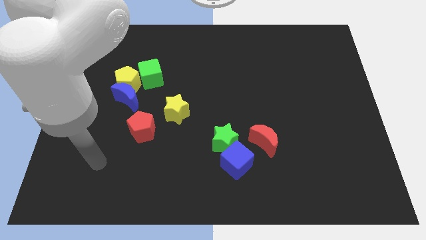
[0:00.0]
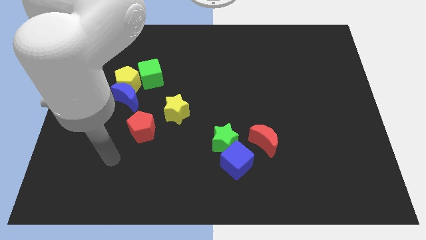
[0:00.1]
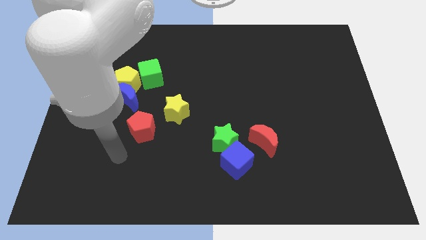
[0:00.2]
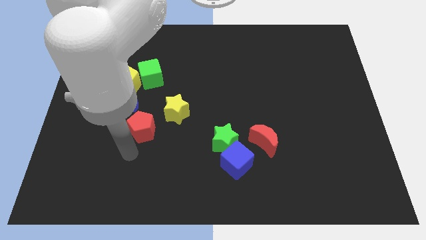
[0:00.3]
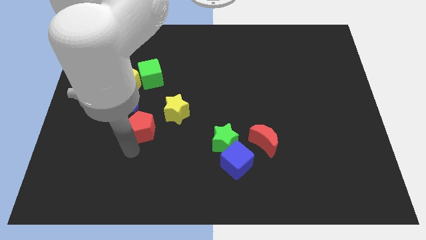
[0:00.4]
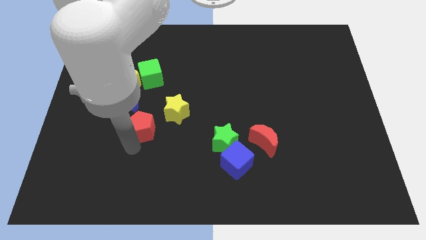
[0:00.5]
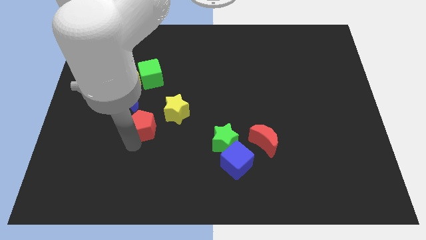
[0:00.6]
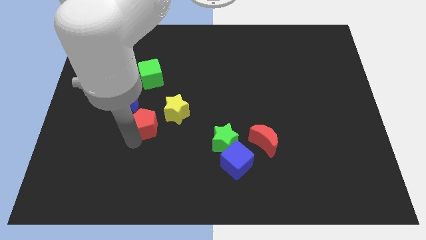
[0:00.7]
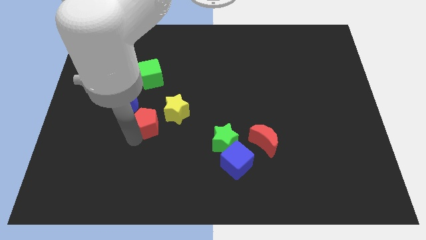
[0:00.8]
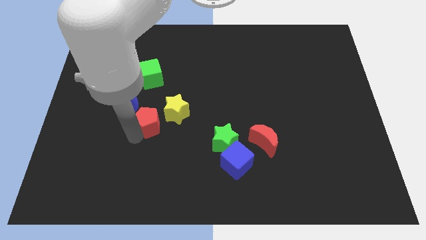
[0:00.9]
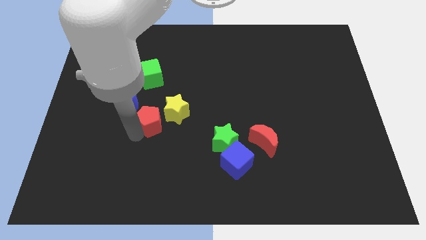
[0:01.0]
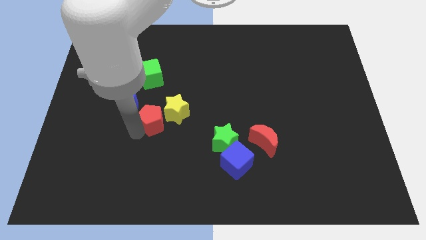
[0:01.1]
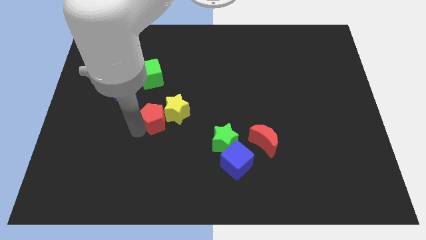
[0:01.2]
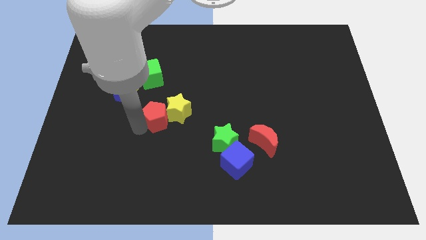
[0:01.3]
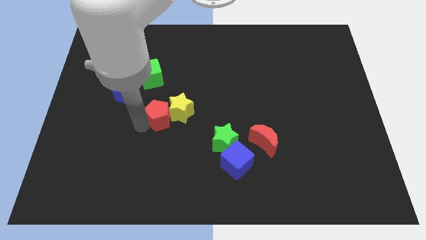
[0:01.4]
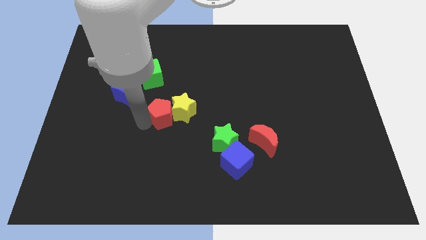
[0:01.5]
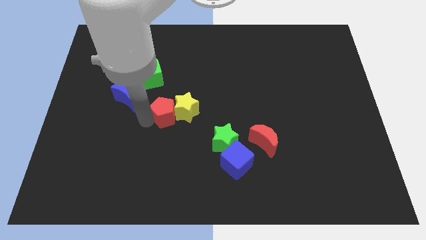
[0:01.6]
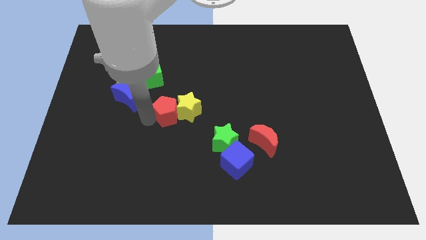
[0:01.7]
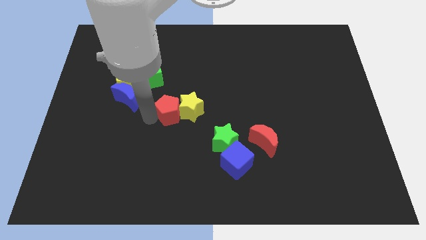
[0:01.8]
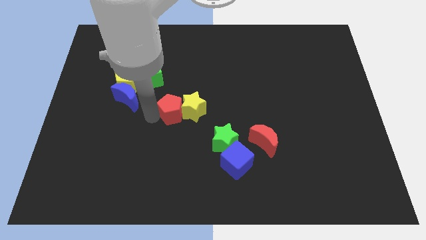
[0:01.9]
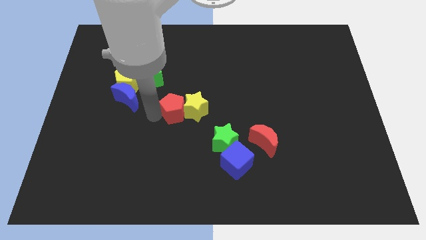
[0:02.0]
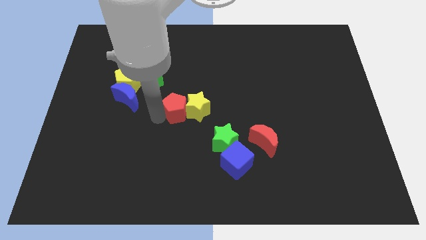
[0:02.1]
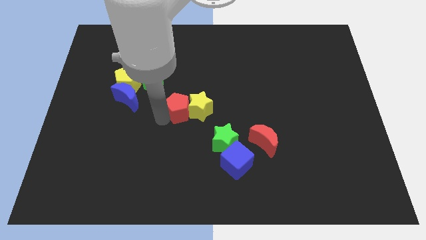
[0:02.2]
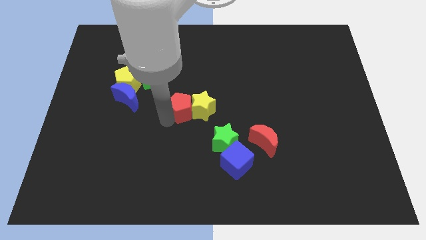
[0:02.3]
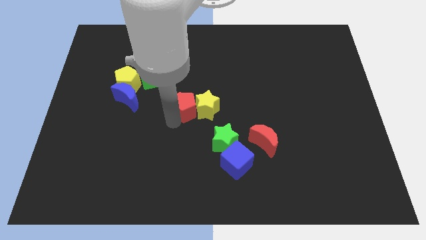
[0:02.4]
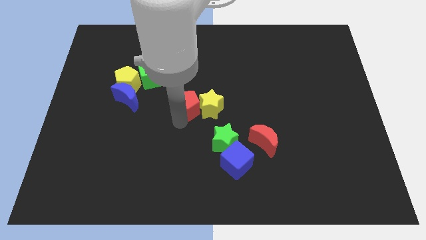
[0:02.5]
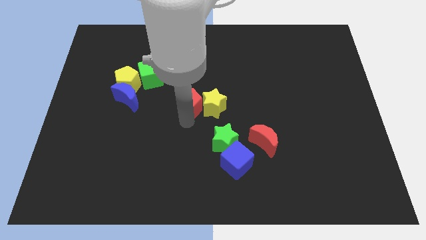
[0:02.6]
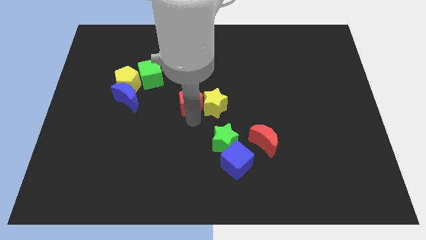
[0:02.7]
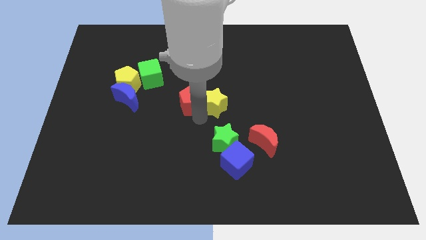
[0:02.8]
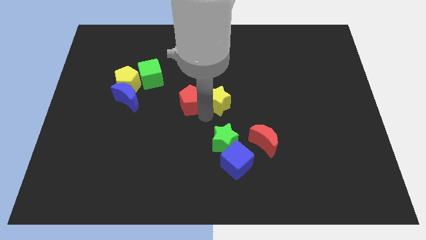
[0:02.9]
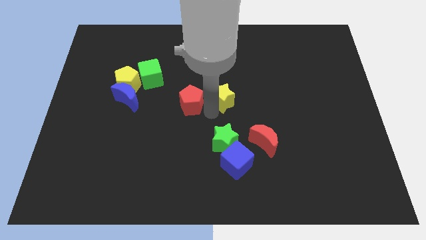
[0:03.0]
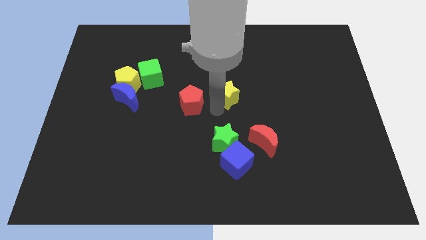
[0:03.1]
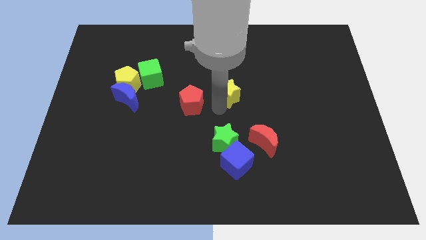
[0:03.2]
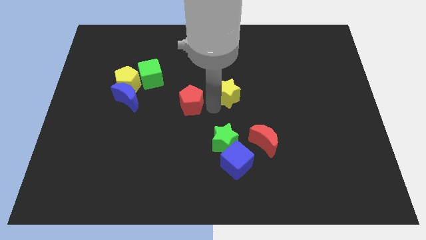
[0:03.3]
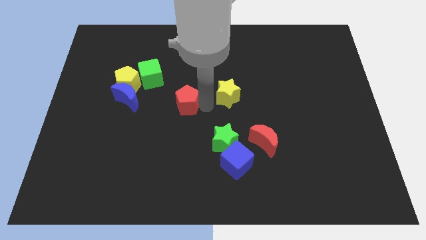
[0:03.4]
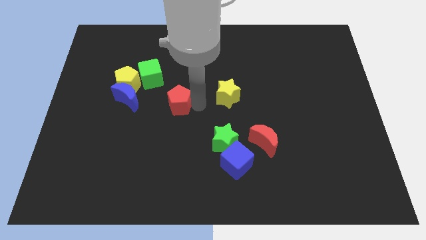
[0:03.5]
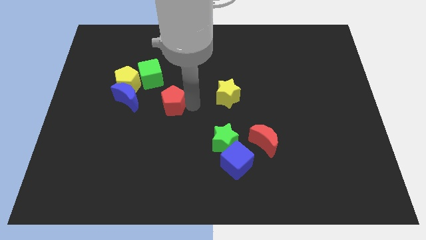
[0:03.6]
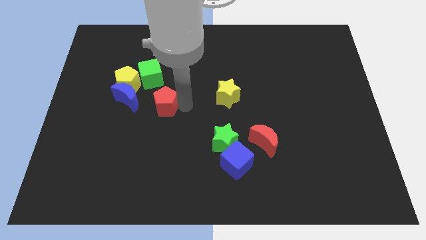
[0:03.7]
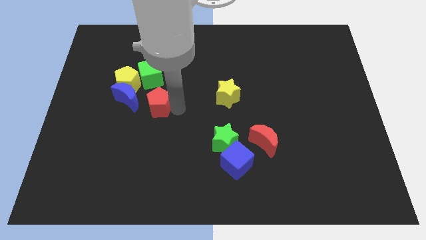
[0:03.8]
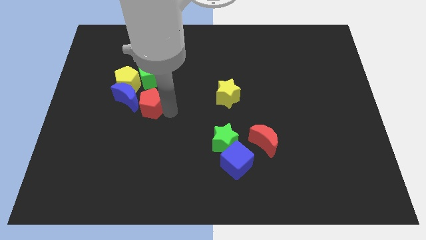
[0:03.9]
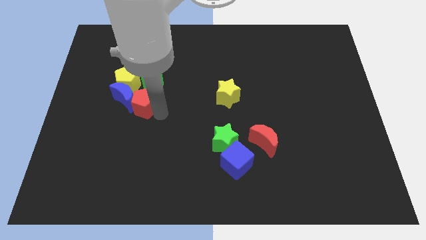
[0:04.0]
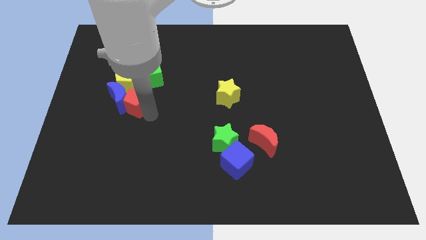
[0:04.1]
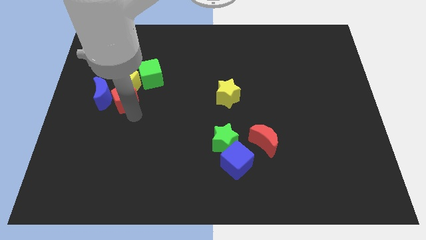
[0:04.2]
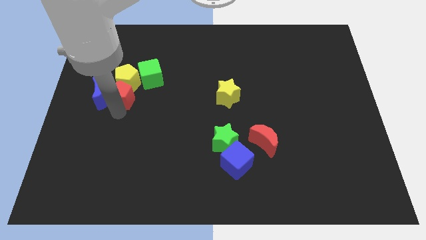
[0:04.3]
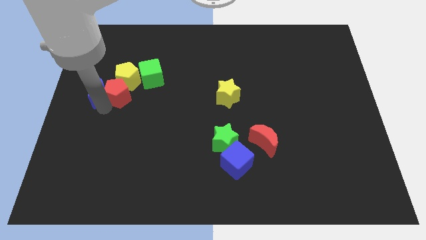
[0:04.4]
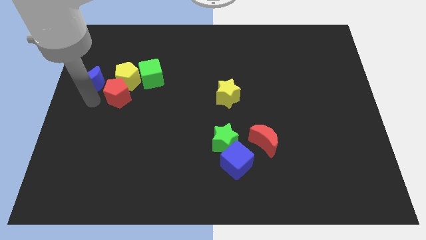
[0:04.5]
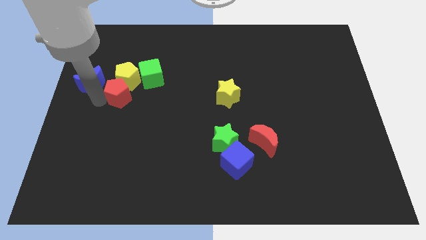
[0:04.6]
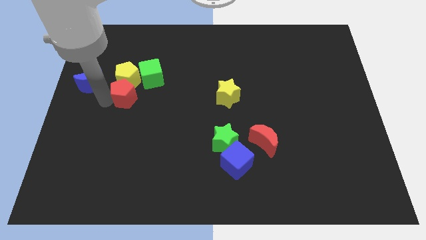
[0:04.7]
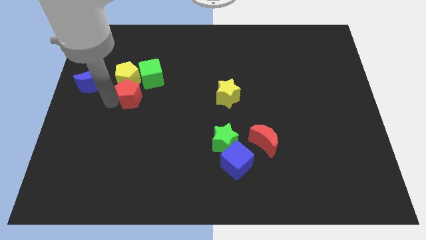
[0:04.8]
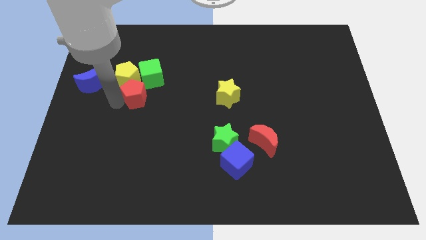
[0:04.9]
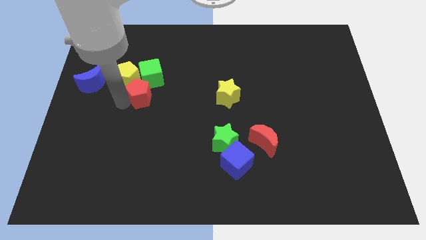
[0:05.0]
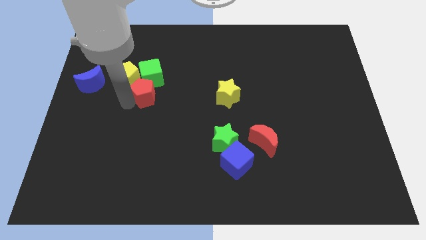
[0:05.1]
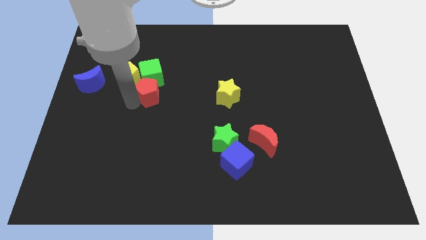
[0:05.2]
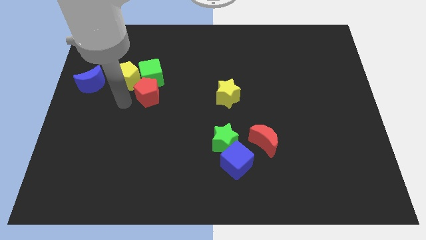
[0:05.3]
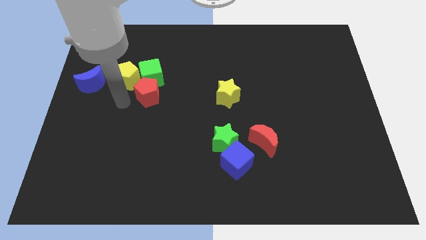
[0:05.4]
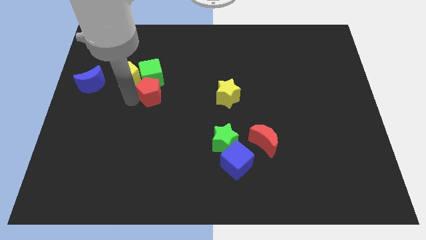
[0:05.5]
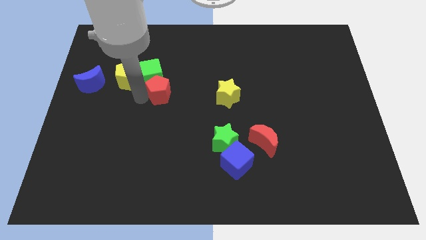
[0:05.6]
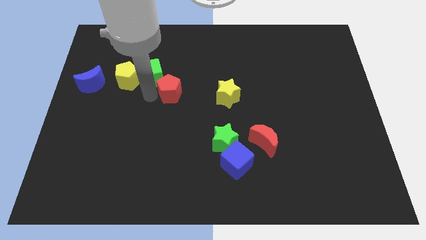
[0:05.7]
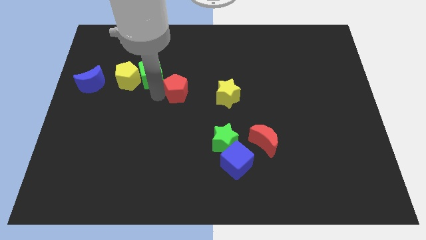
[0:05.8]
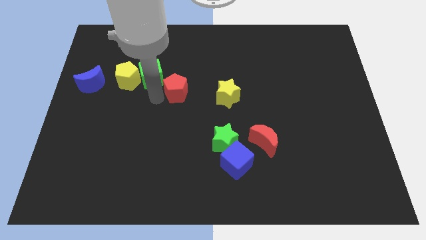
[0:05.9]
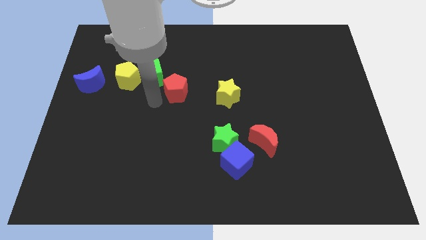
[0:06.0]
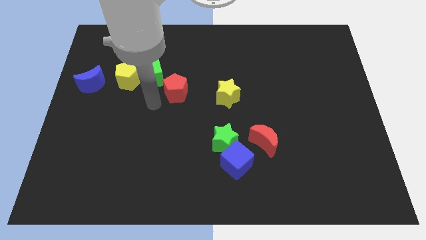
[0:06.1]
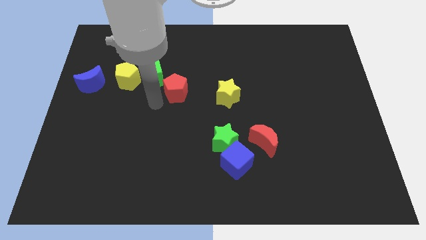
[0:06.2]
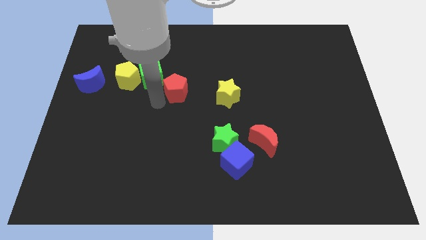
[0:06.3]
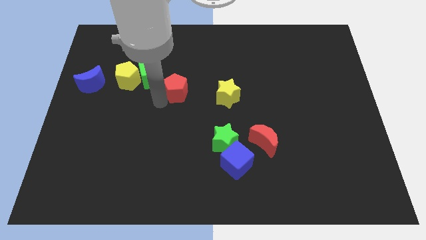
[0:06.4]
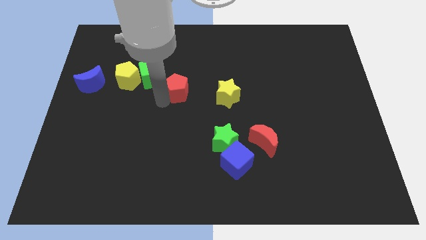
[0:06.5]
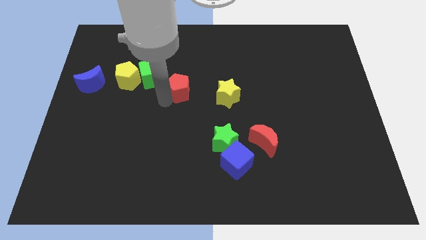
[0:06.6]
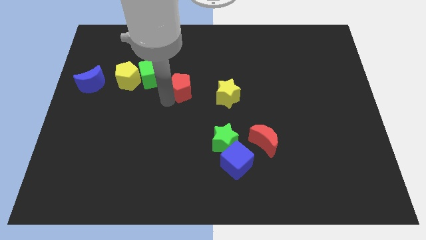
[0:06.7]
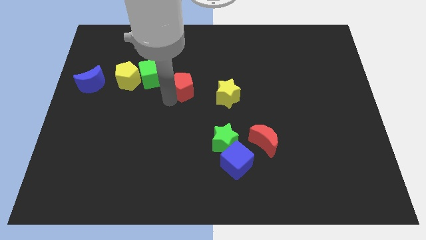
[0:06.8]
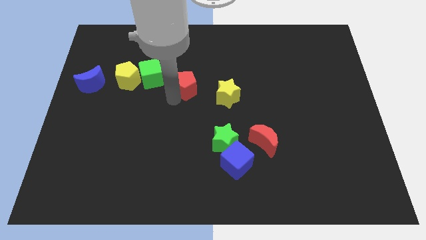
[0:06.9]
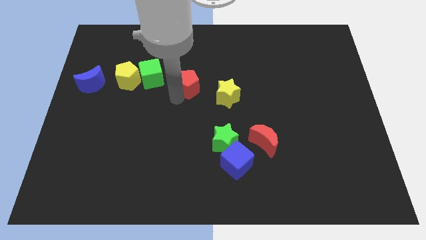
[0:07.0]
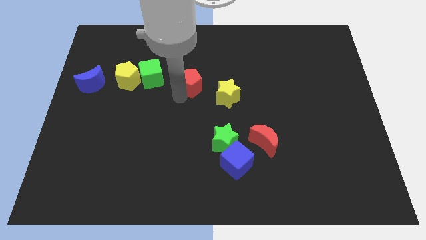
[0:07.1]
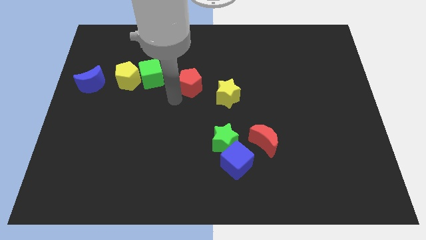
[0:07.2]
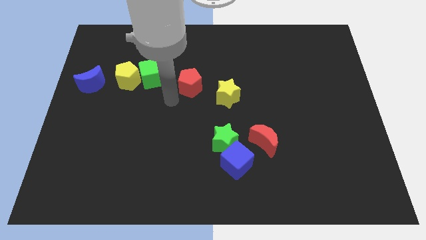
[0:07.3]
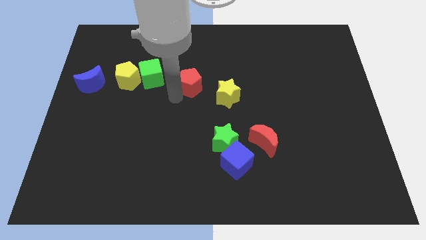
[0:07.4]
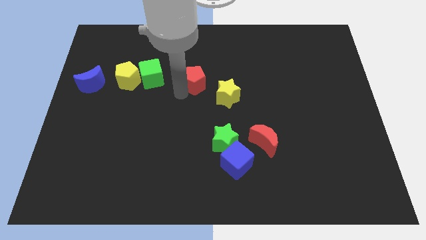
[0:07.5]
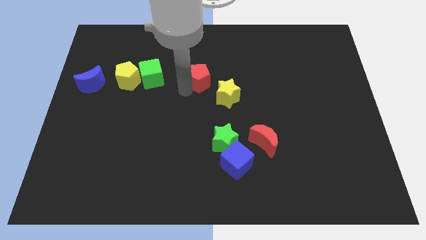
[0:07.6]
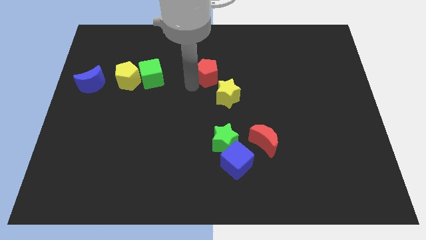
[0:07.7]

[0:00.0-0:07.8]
slide the red pentagon upwards and then right
